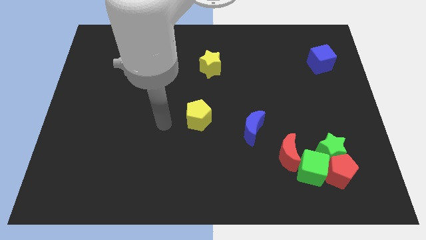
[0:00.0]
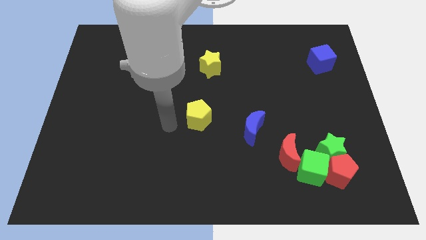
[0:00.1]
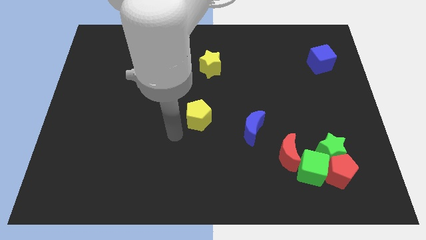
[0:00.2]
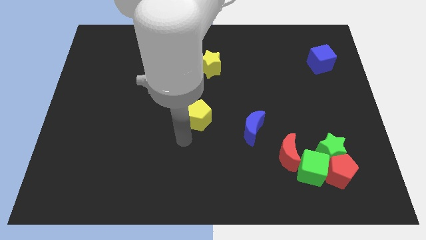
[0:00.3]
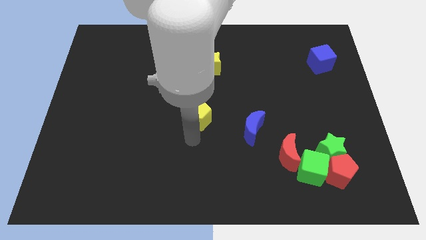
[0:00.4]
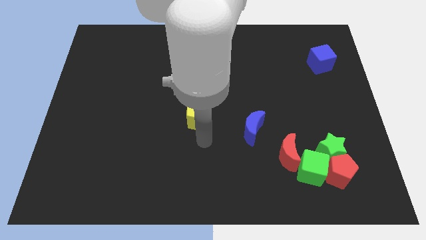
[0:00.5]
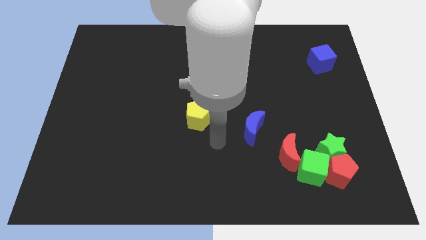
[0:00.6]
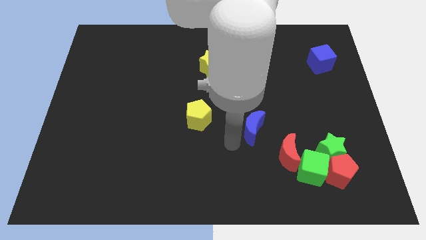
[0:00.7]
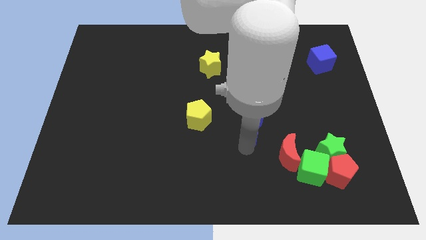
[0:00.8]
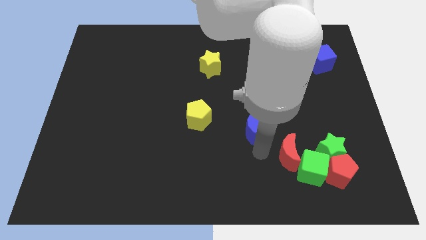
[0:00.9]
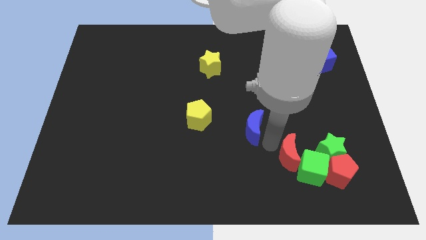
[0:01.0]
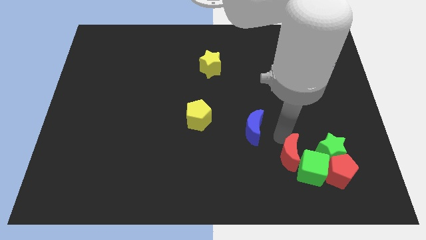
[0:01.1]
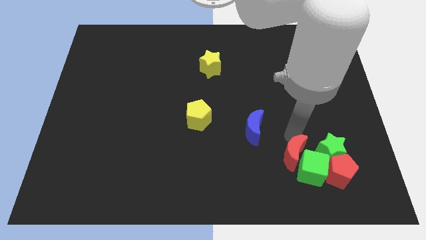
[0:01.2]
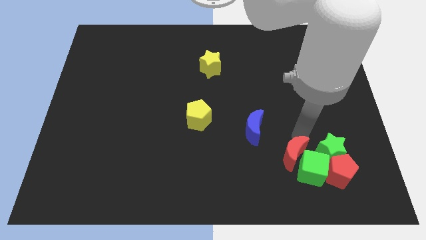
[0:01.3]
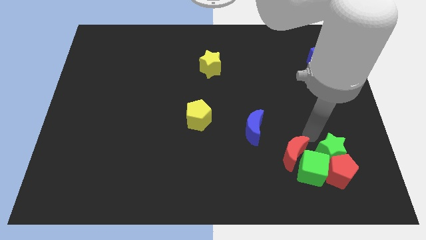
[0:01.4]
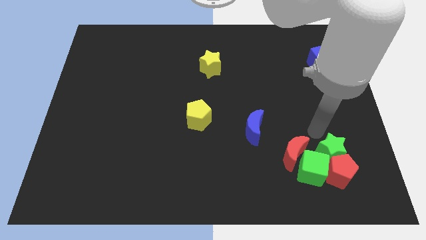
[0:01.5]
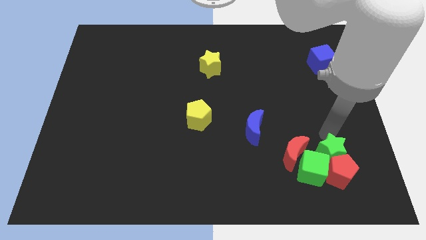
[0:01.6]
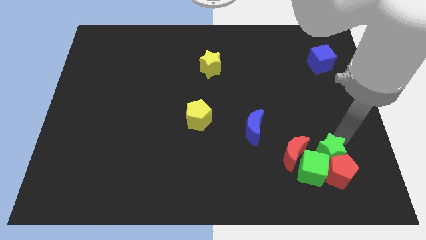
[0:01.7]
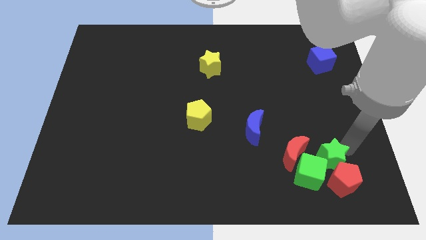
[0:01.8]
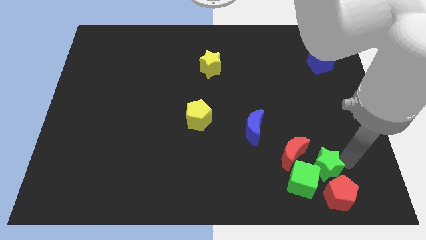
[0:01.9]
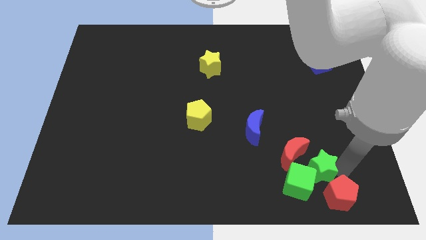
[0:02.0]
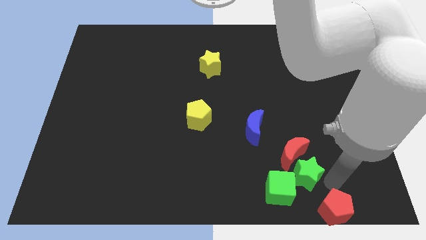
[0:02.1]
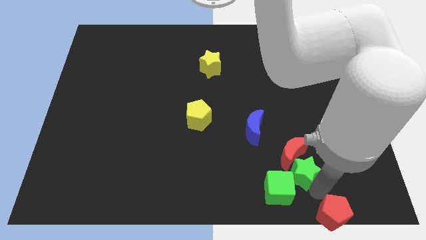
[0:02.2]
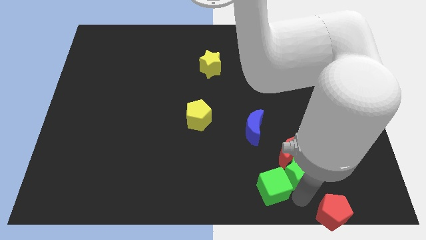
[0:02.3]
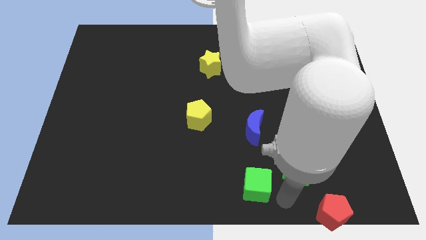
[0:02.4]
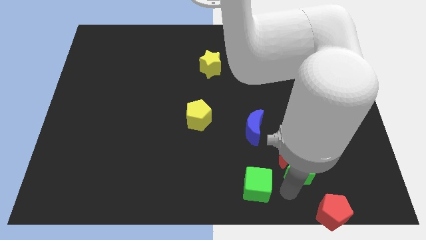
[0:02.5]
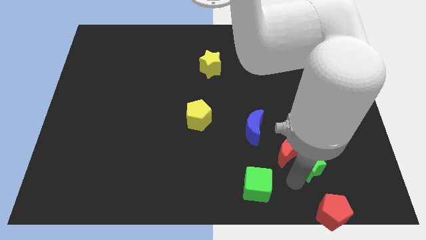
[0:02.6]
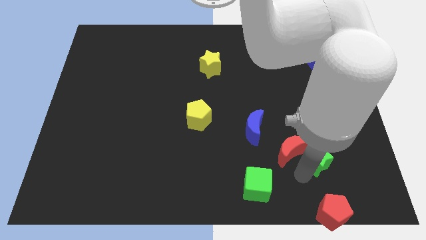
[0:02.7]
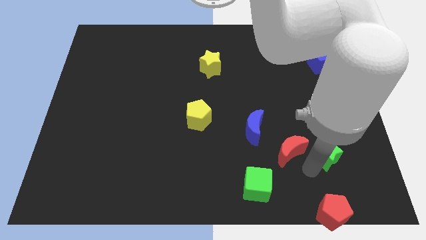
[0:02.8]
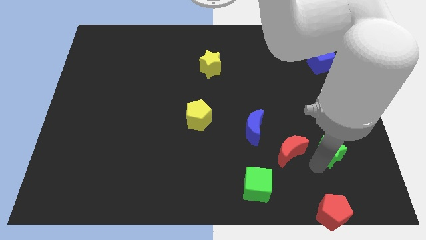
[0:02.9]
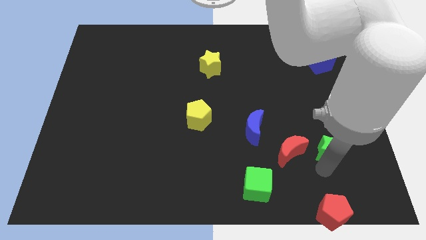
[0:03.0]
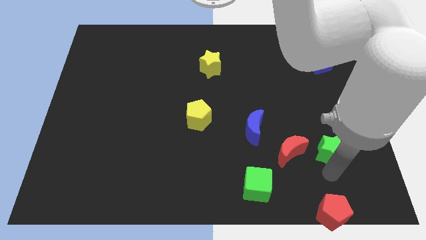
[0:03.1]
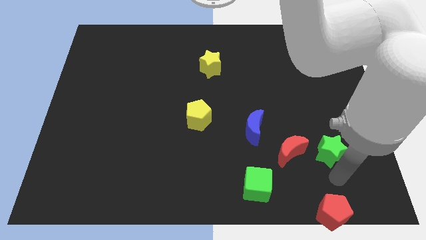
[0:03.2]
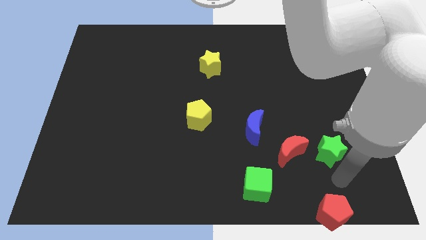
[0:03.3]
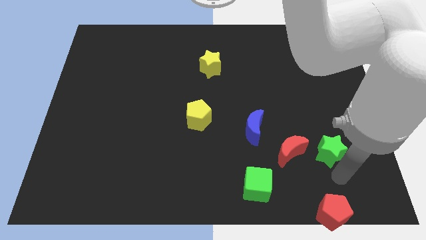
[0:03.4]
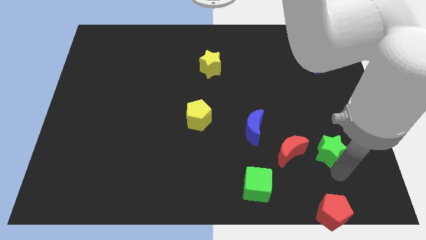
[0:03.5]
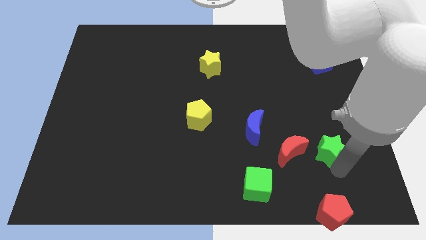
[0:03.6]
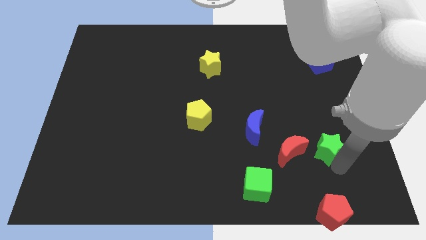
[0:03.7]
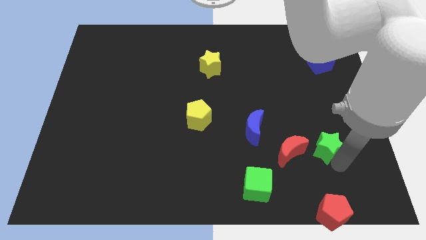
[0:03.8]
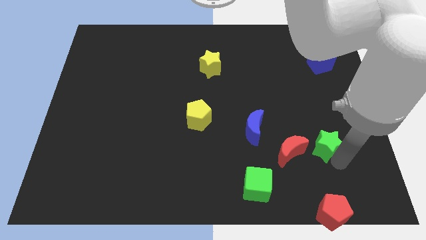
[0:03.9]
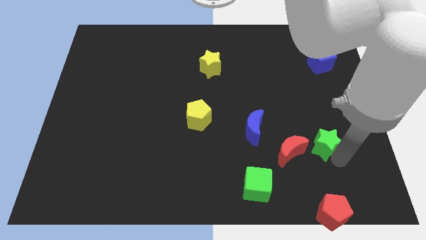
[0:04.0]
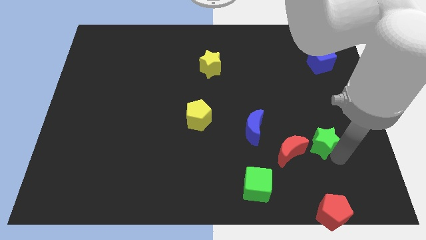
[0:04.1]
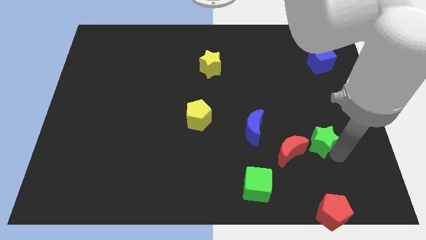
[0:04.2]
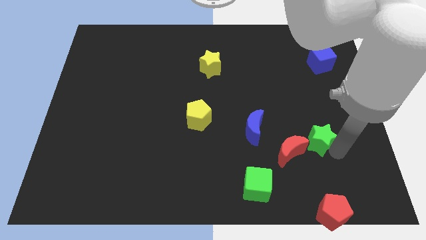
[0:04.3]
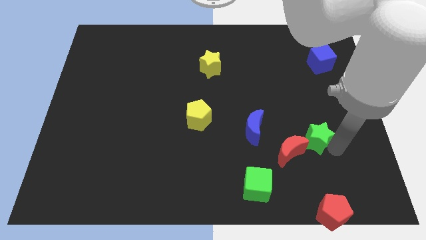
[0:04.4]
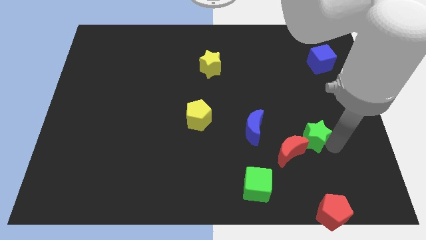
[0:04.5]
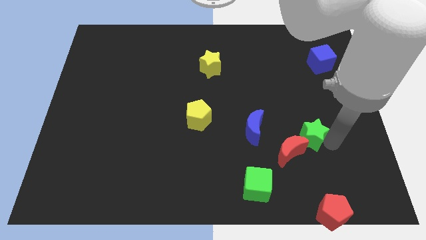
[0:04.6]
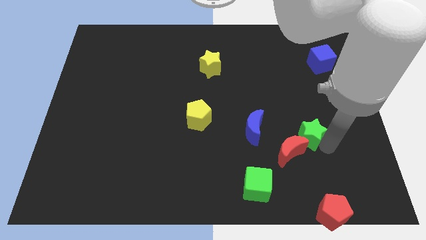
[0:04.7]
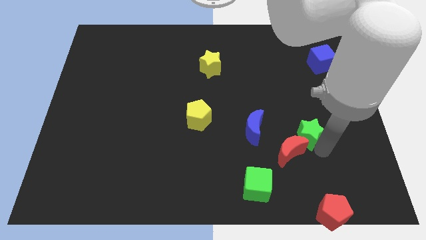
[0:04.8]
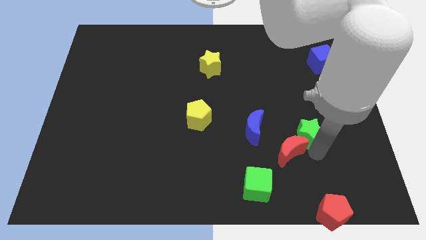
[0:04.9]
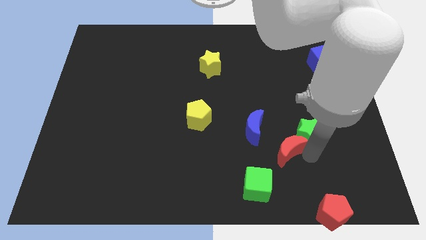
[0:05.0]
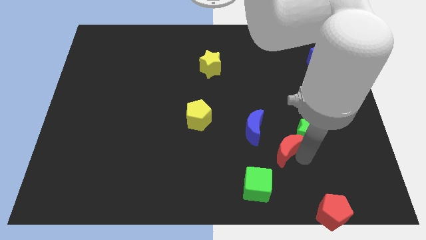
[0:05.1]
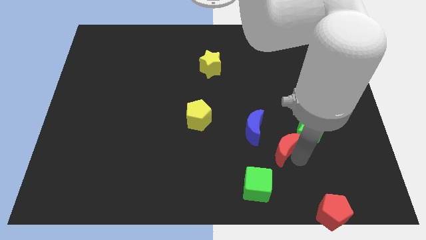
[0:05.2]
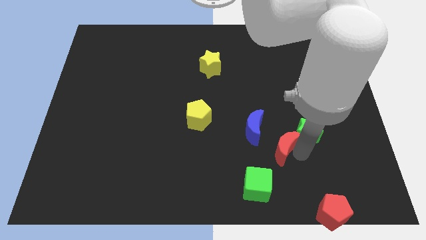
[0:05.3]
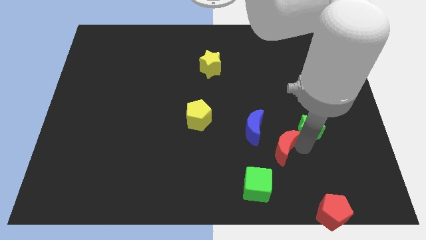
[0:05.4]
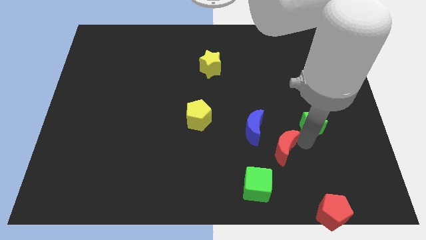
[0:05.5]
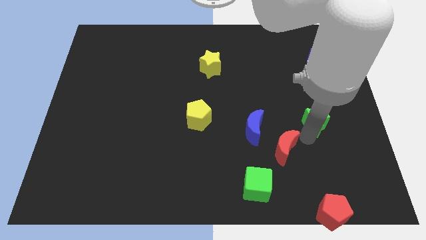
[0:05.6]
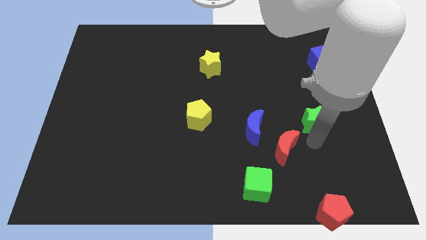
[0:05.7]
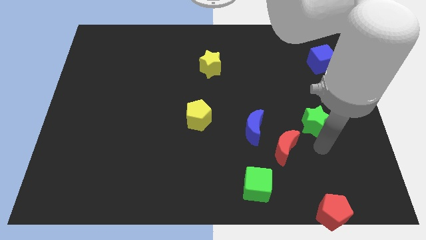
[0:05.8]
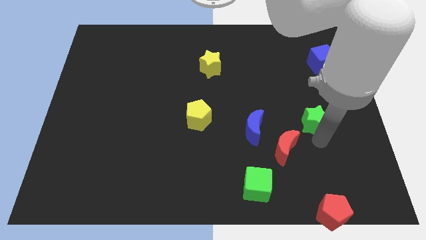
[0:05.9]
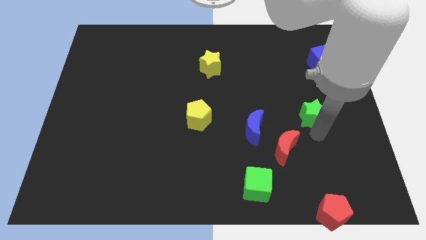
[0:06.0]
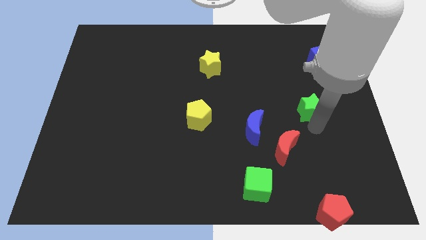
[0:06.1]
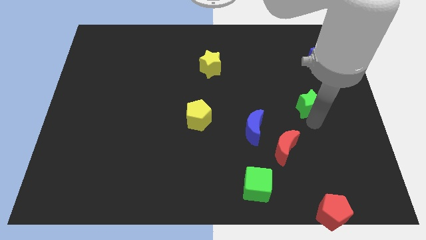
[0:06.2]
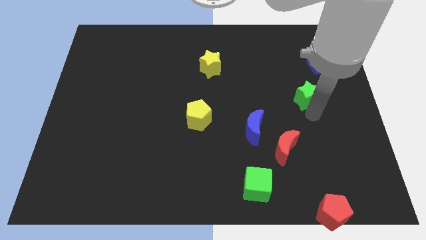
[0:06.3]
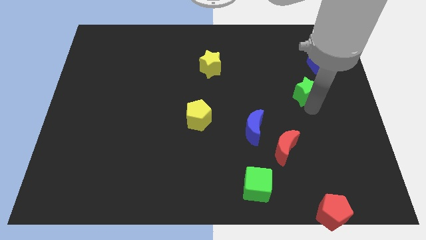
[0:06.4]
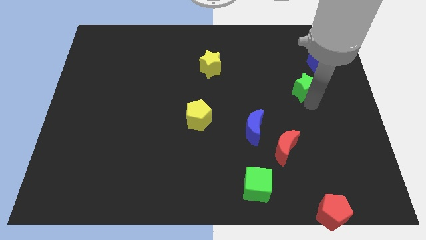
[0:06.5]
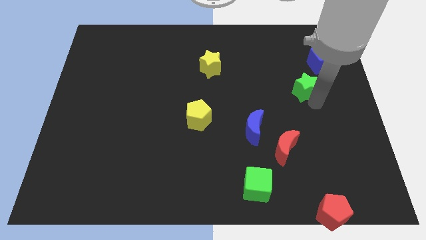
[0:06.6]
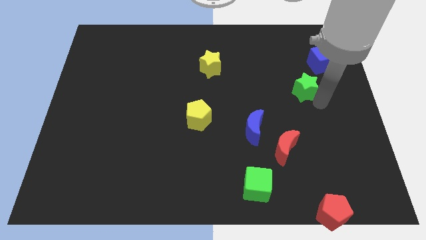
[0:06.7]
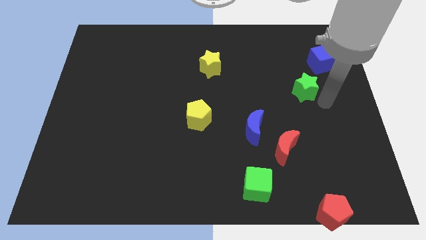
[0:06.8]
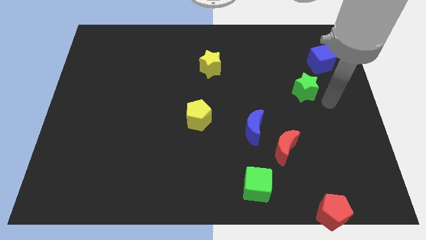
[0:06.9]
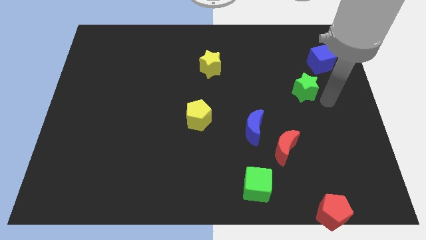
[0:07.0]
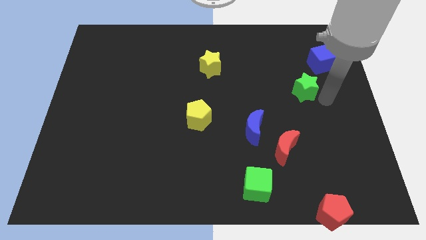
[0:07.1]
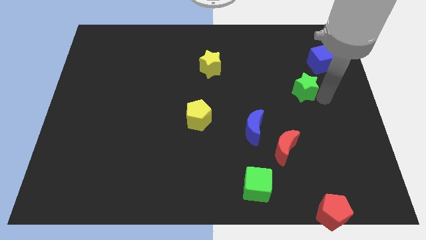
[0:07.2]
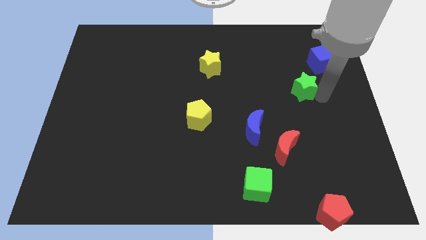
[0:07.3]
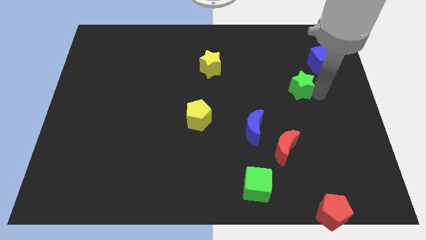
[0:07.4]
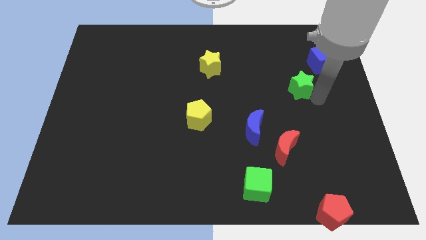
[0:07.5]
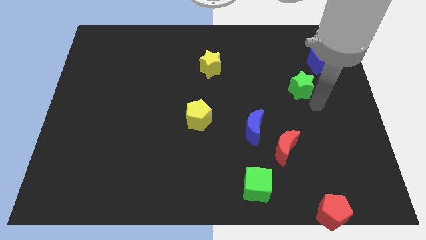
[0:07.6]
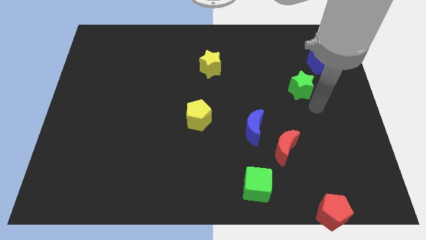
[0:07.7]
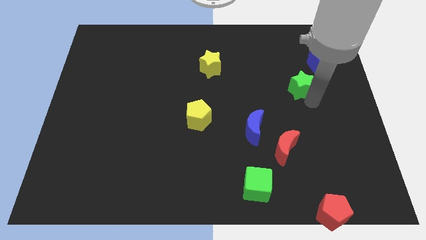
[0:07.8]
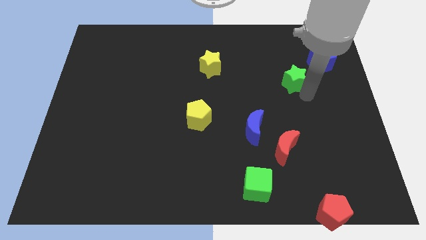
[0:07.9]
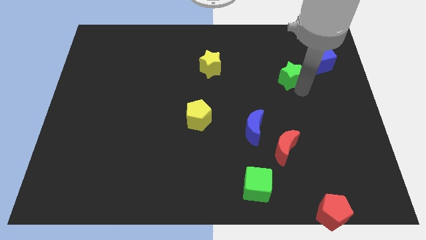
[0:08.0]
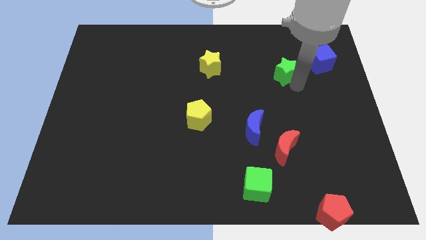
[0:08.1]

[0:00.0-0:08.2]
move the green star to the left of the blue cube
